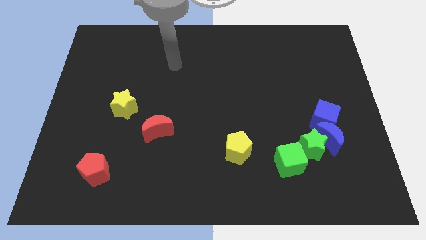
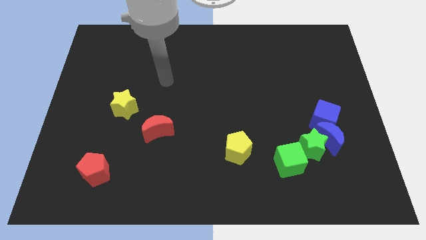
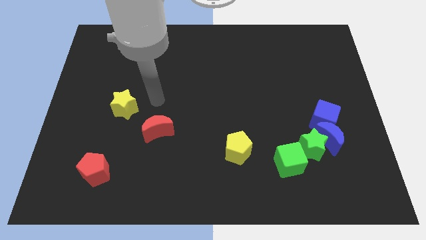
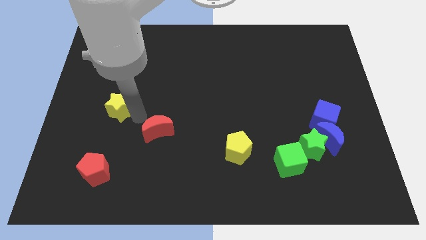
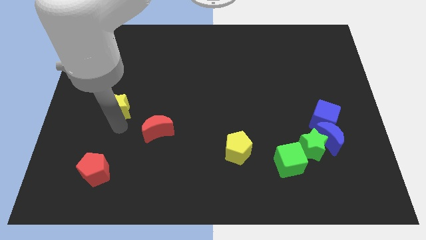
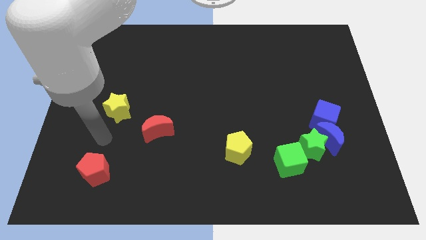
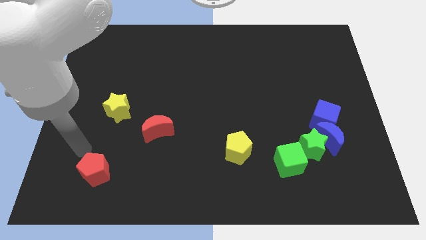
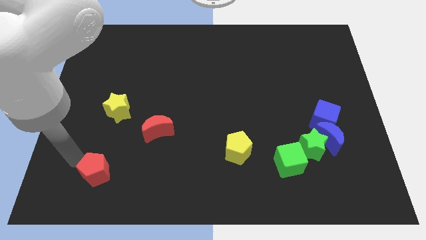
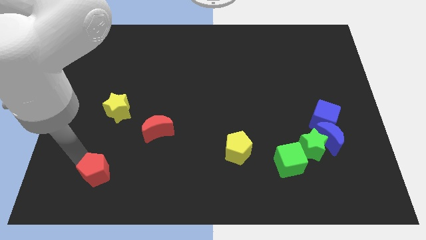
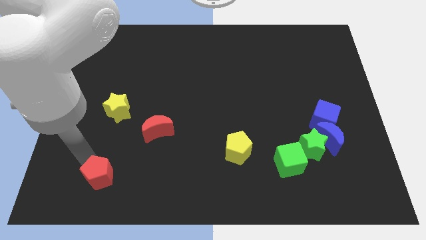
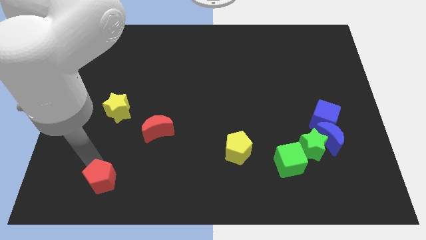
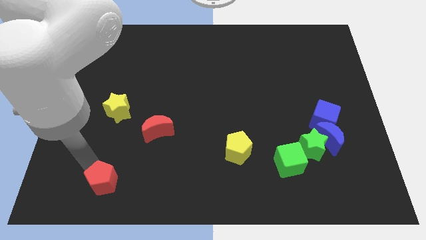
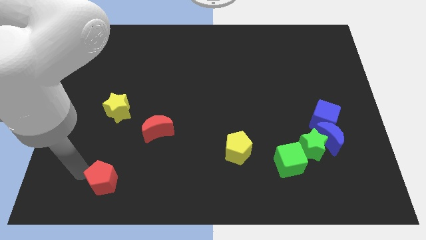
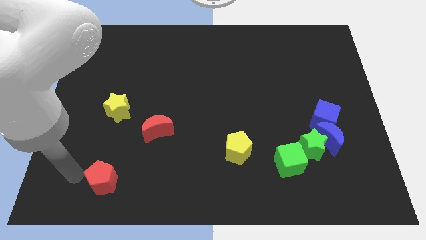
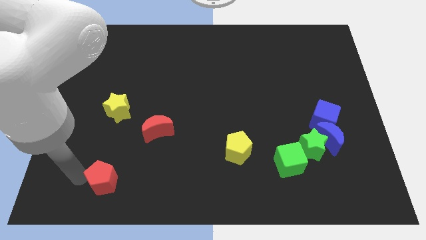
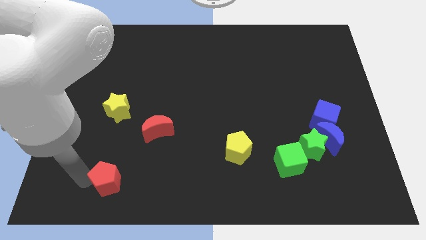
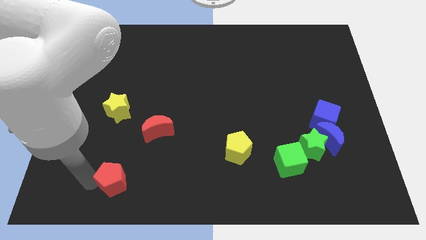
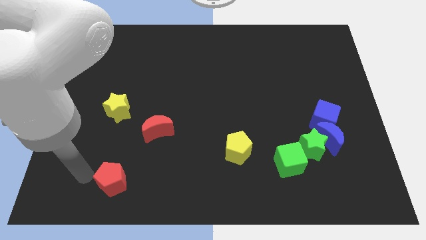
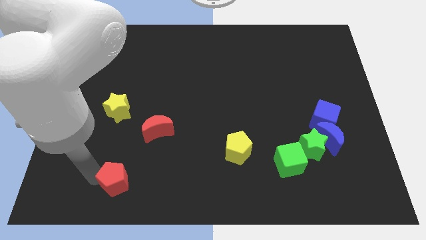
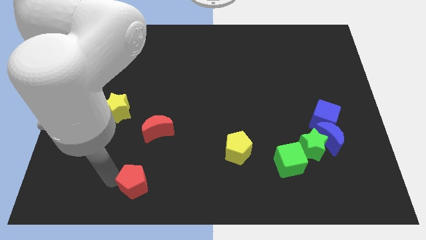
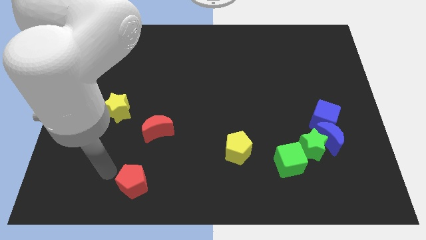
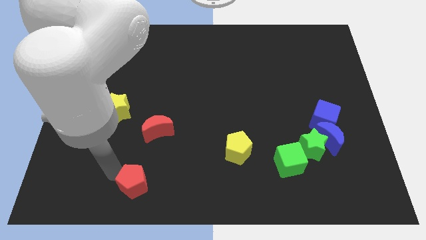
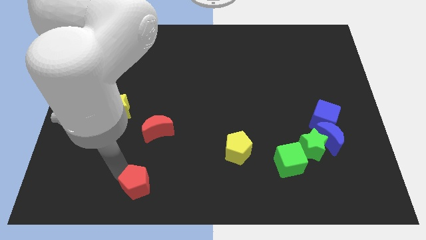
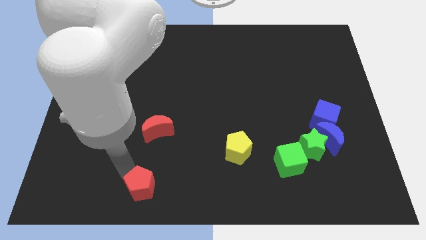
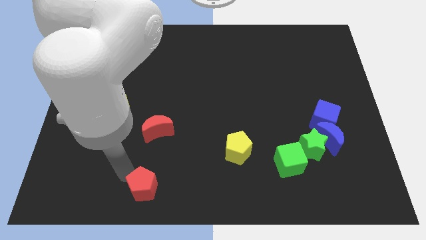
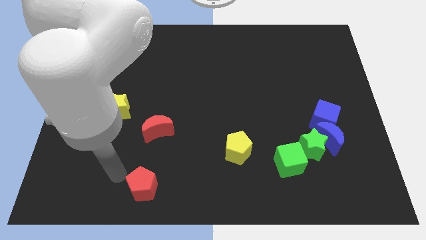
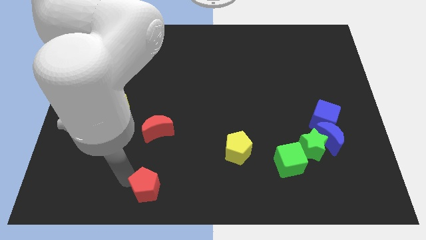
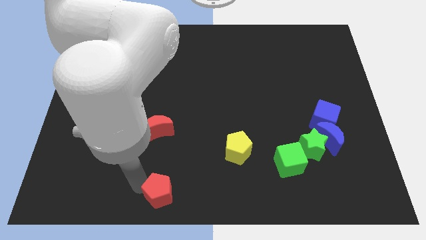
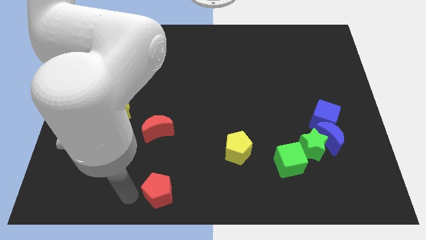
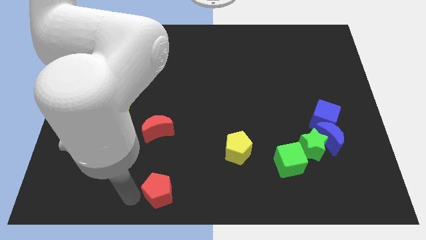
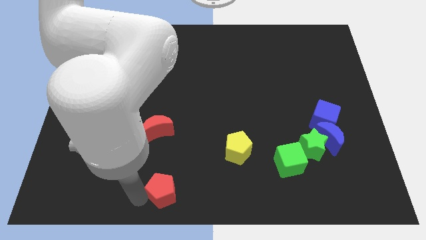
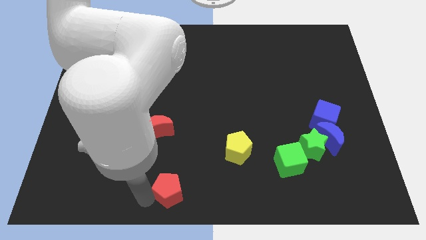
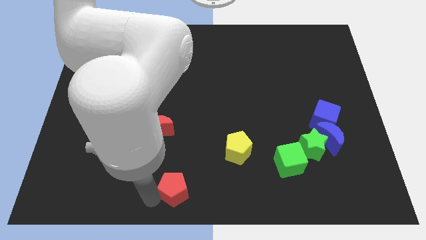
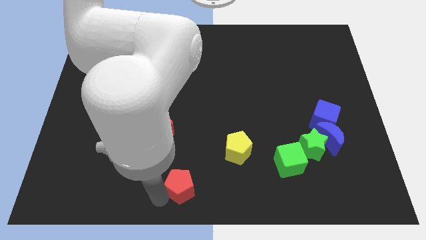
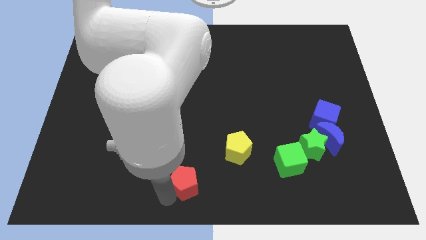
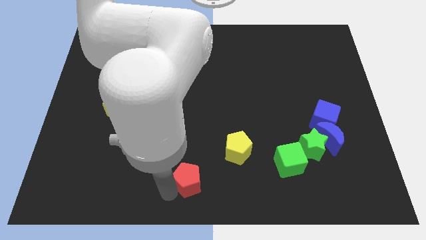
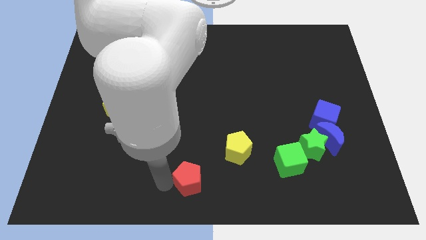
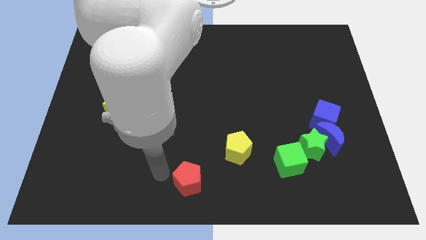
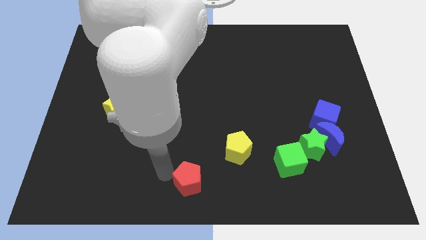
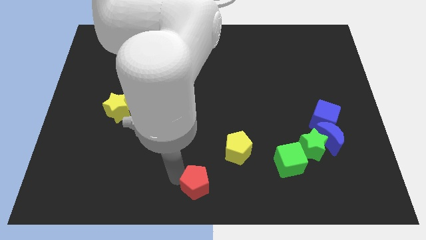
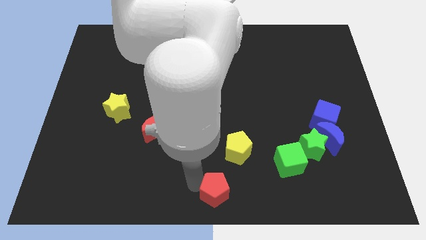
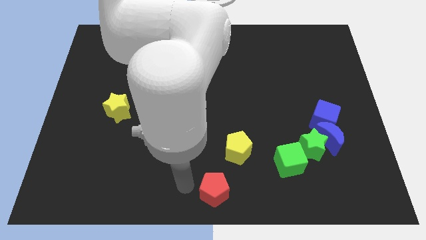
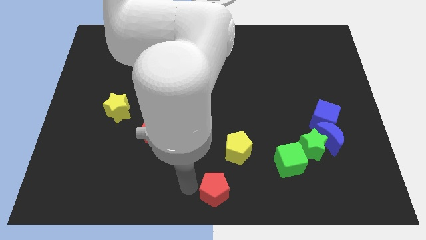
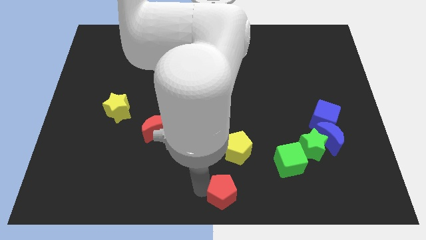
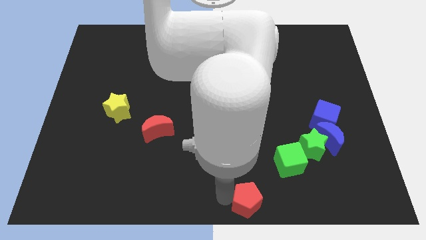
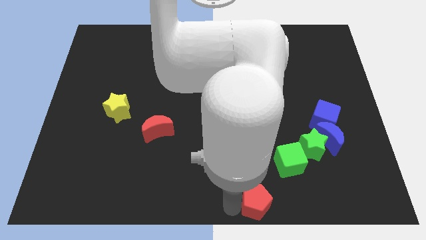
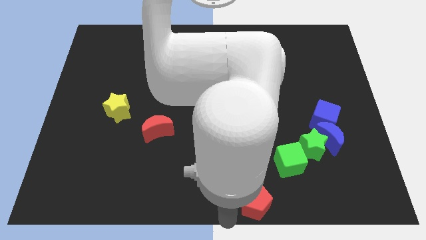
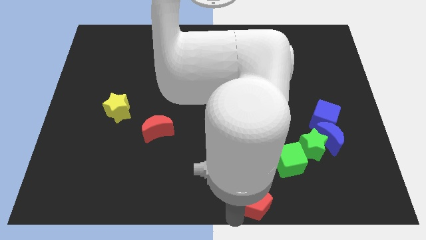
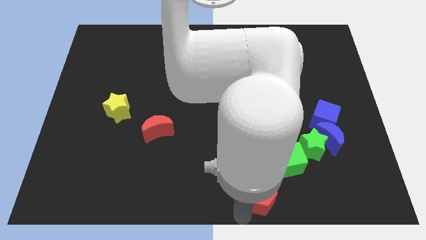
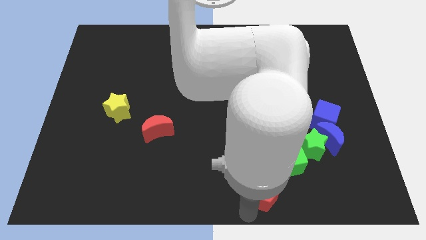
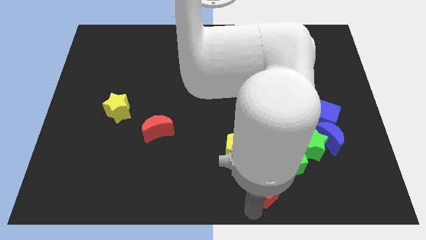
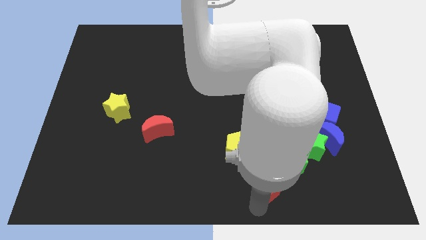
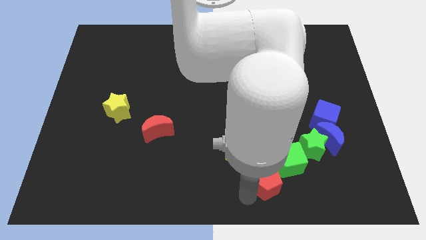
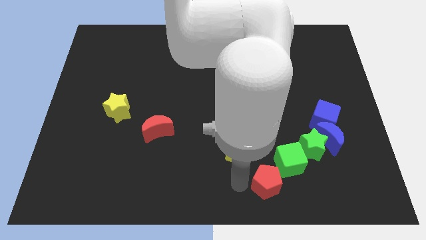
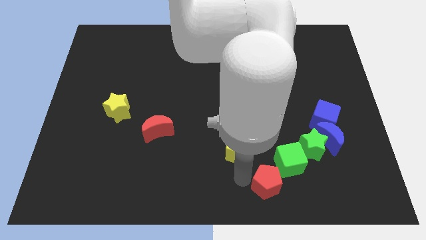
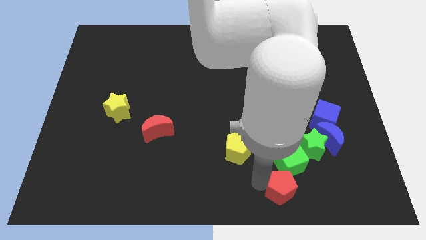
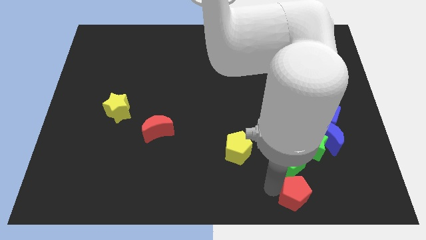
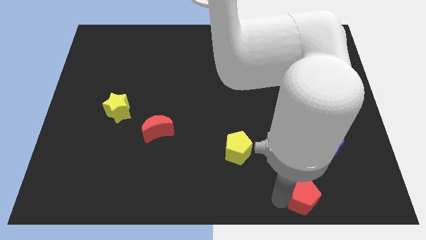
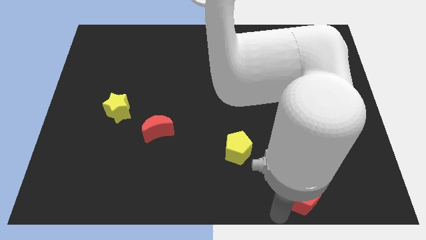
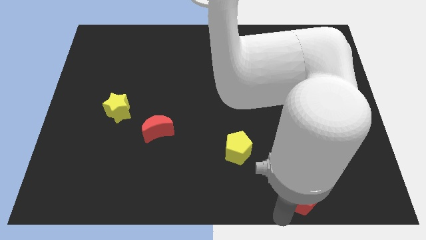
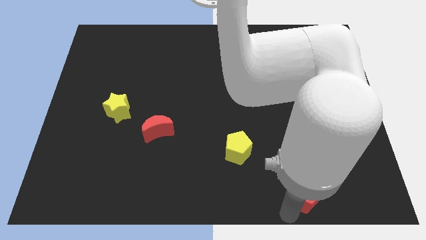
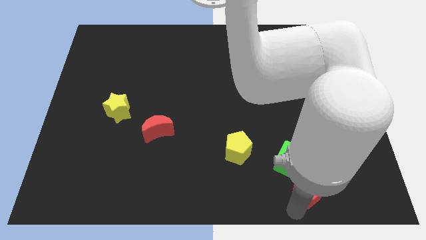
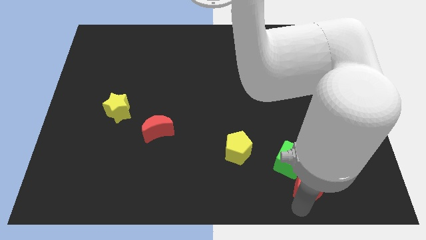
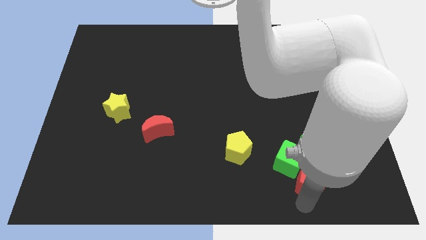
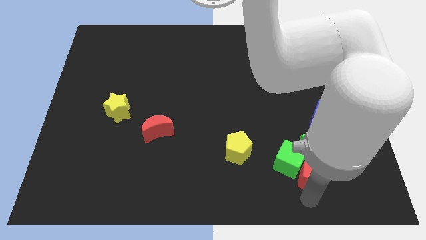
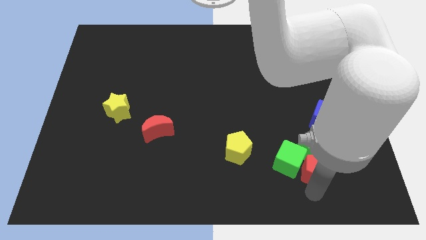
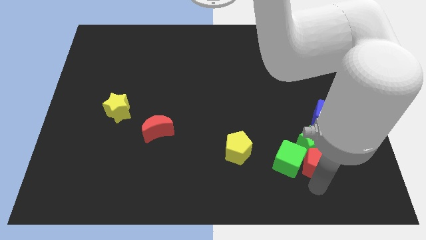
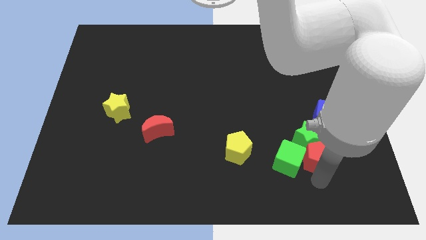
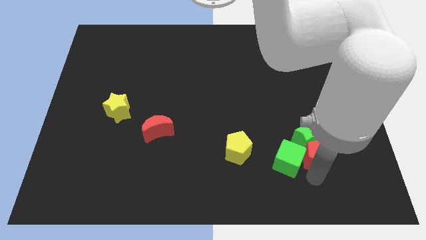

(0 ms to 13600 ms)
put the red pentagon towards the blue moon

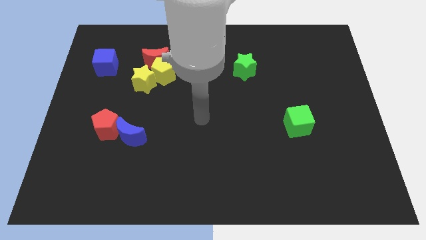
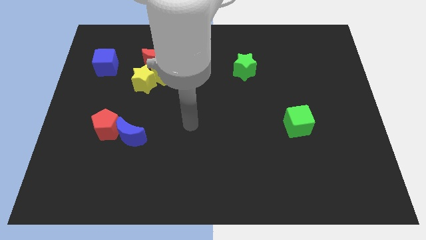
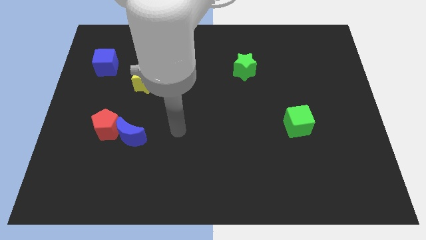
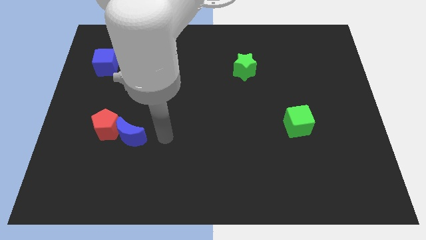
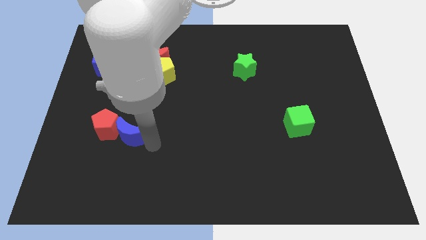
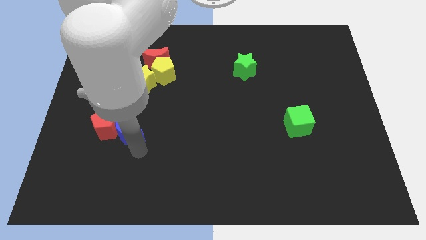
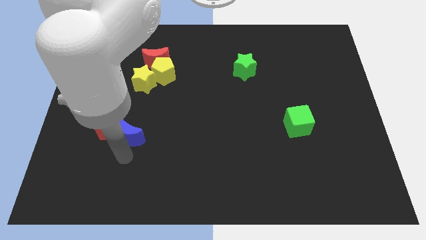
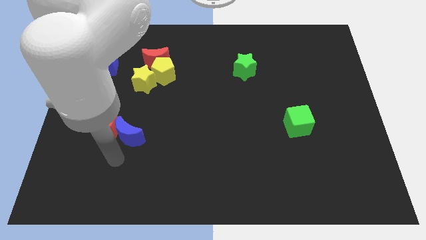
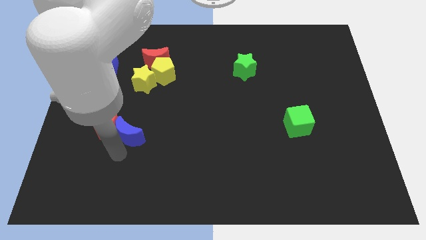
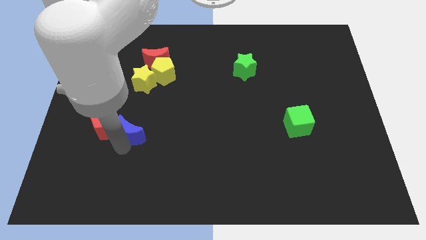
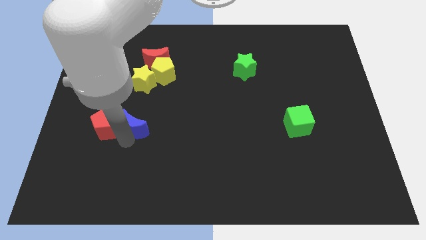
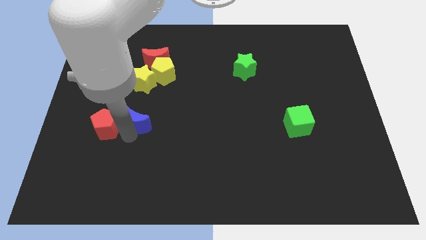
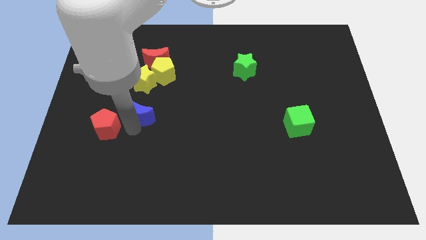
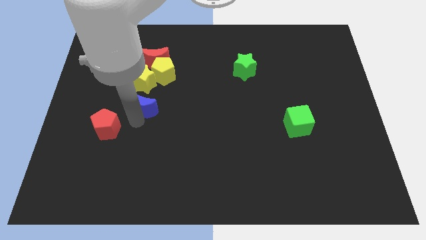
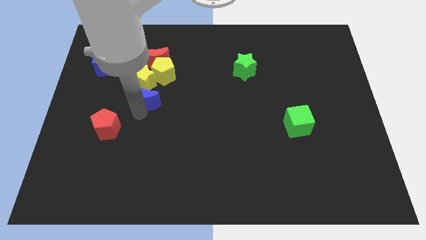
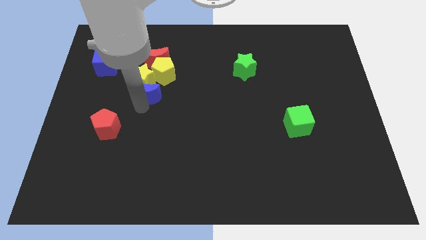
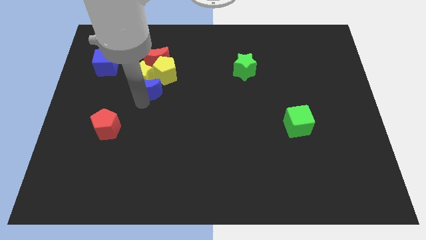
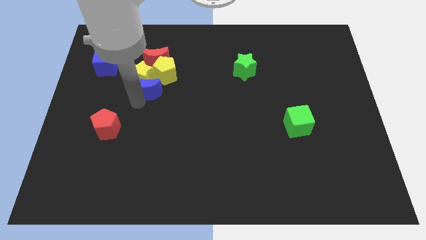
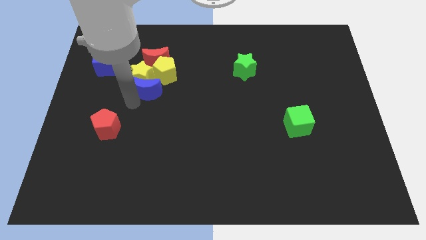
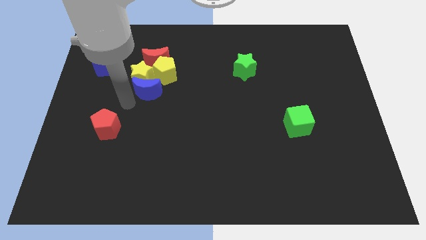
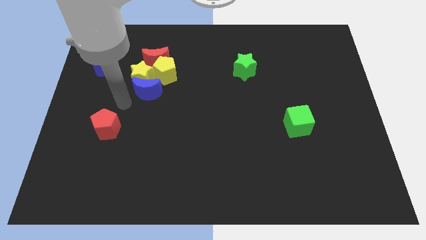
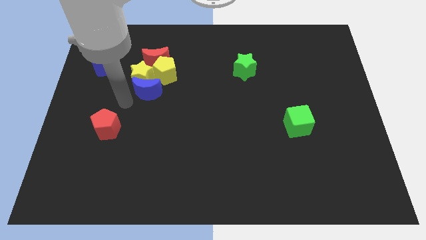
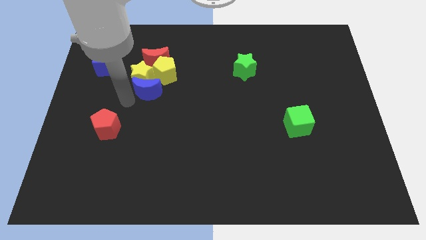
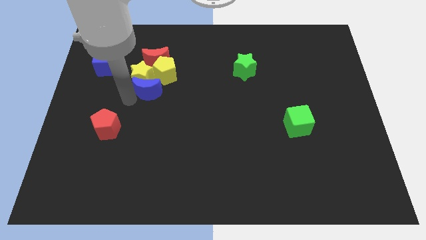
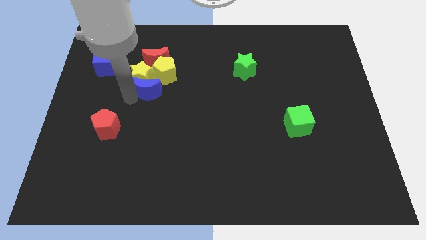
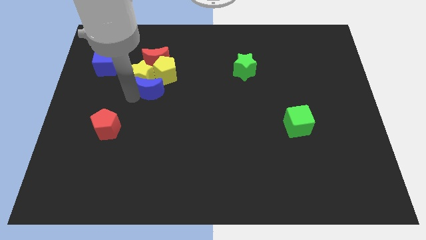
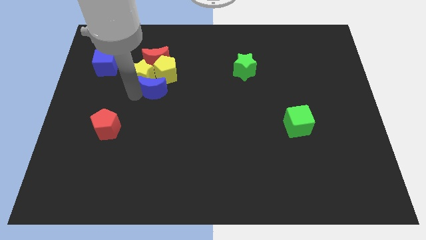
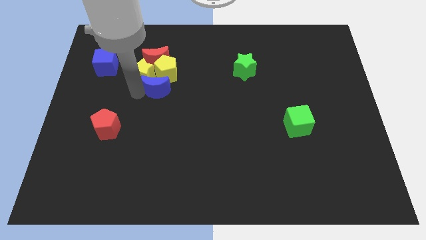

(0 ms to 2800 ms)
put the blue moon close to the yellow pentagon
